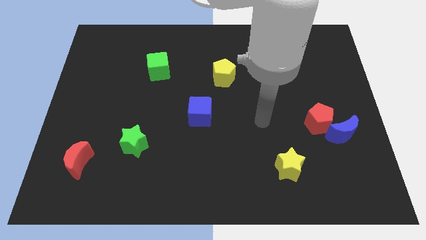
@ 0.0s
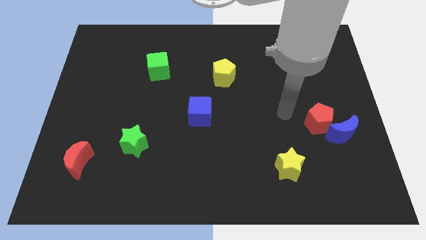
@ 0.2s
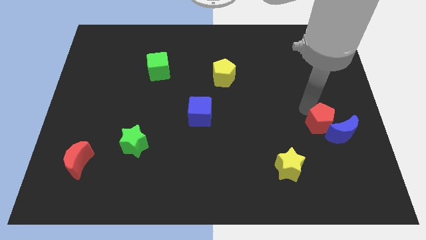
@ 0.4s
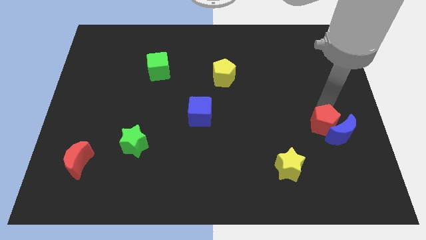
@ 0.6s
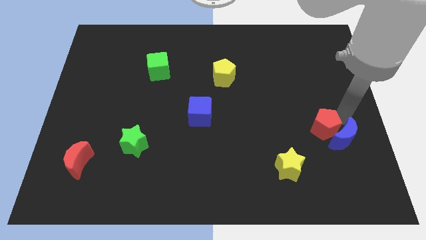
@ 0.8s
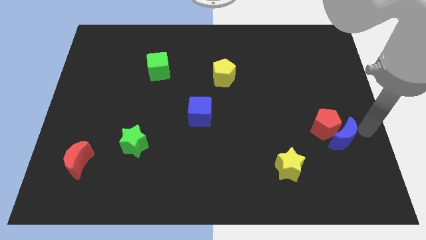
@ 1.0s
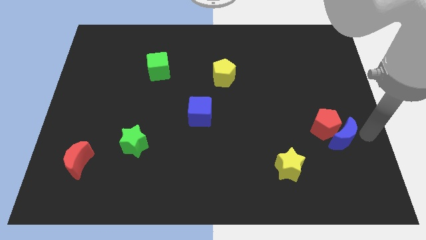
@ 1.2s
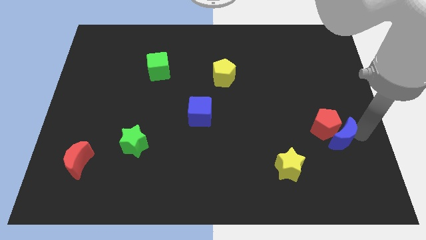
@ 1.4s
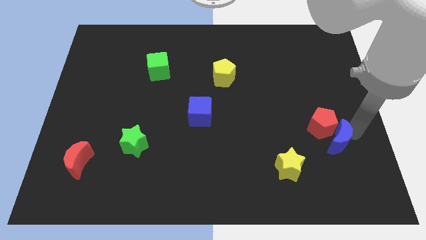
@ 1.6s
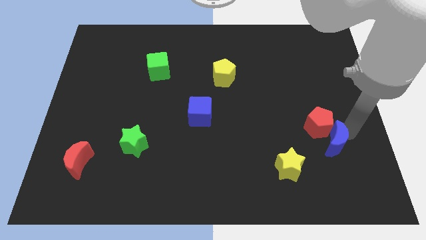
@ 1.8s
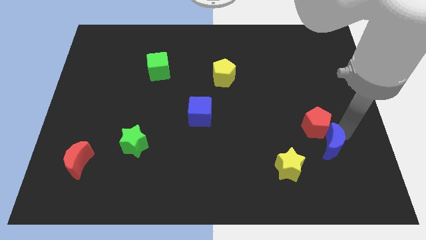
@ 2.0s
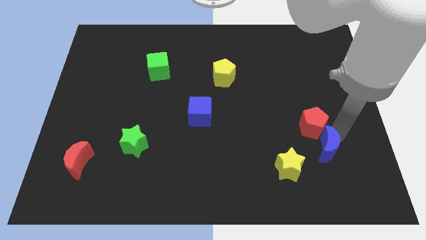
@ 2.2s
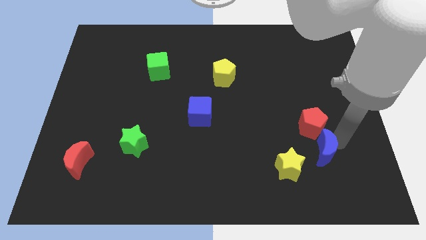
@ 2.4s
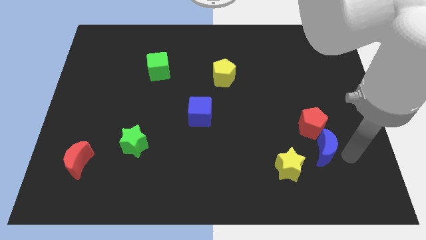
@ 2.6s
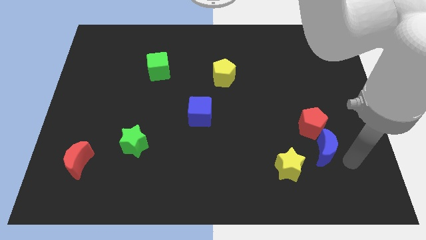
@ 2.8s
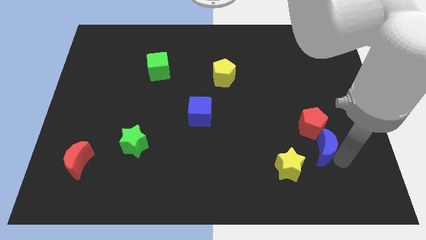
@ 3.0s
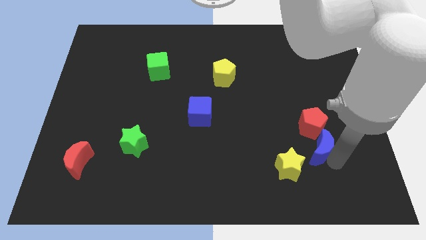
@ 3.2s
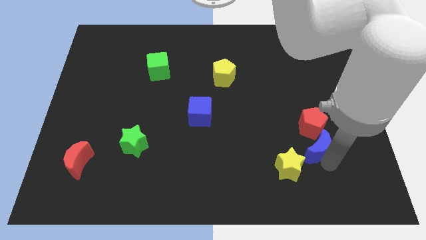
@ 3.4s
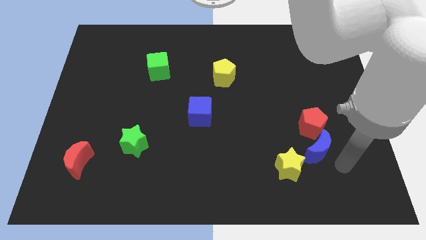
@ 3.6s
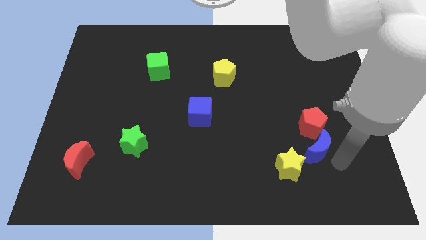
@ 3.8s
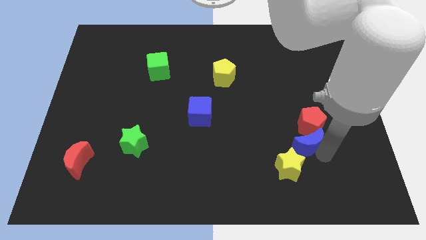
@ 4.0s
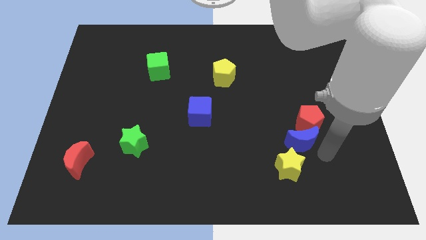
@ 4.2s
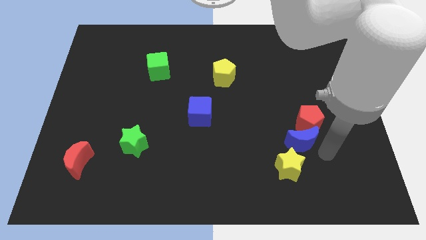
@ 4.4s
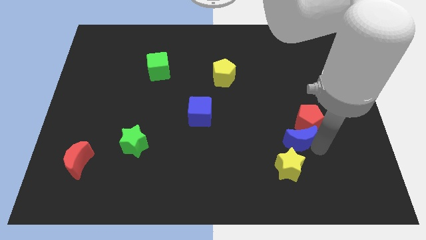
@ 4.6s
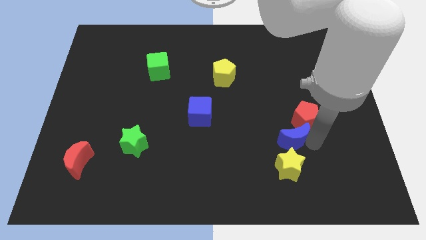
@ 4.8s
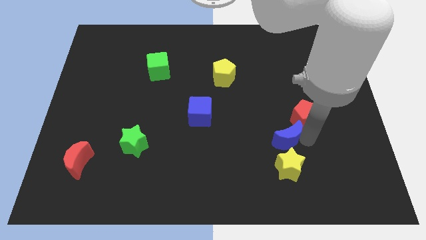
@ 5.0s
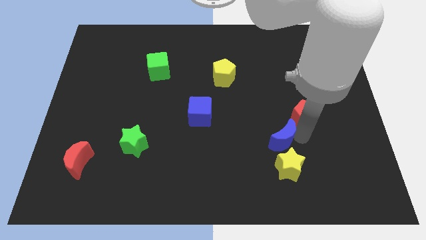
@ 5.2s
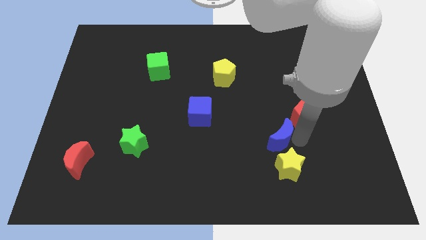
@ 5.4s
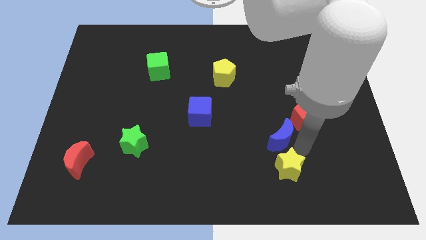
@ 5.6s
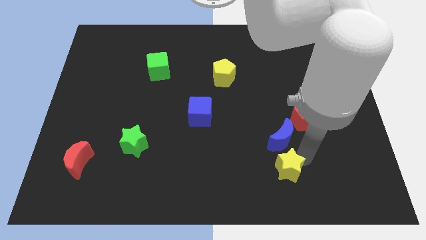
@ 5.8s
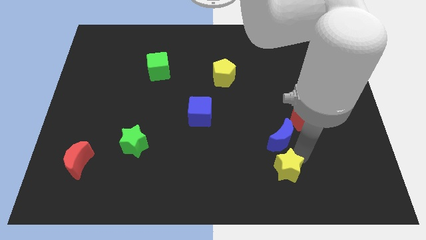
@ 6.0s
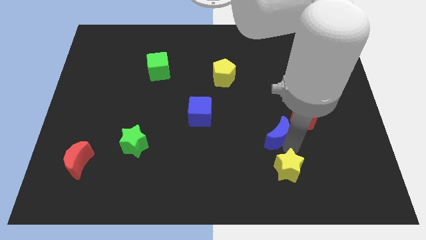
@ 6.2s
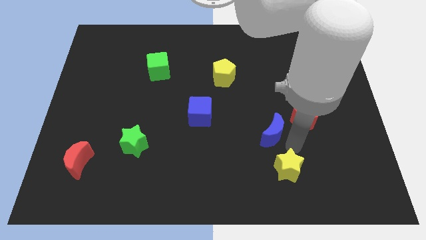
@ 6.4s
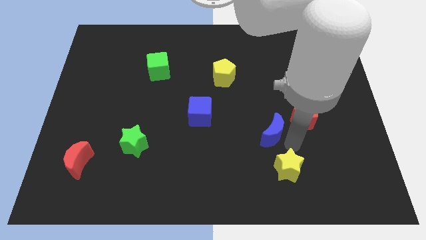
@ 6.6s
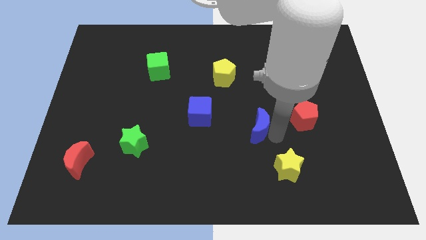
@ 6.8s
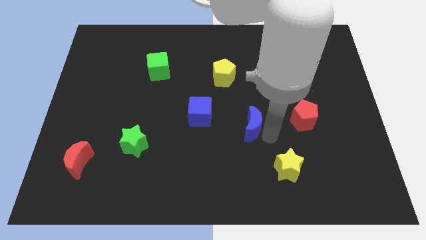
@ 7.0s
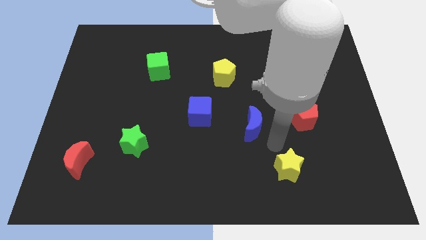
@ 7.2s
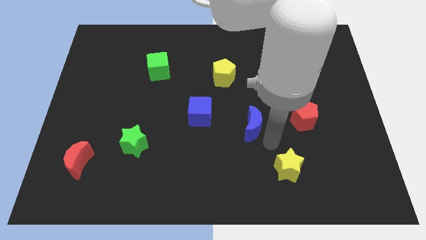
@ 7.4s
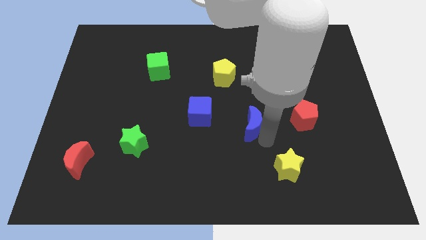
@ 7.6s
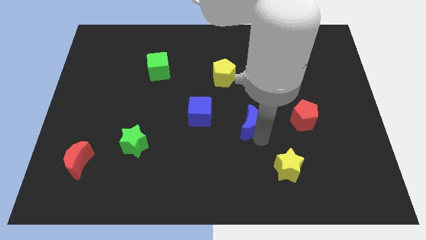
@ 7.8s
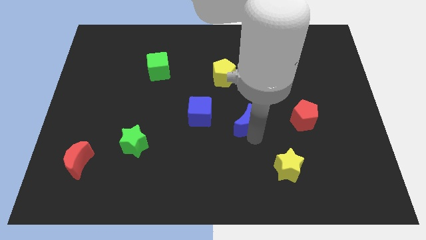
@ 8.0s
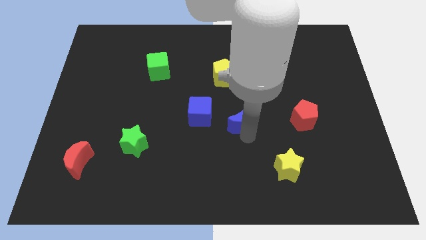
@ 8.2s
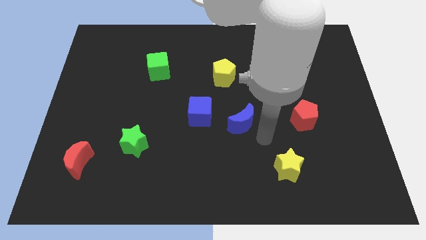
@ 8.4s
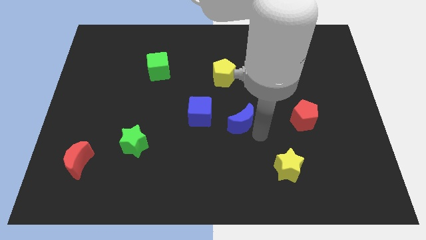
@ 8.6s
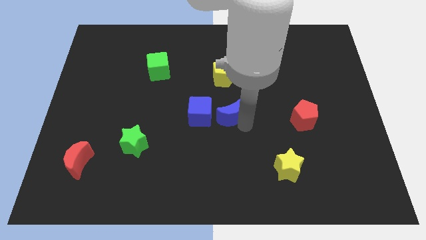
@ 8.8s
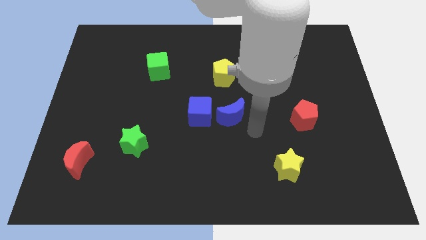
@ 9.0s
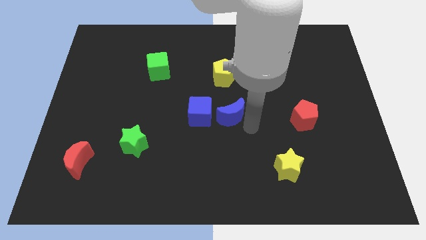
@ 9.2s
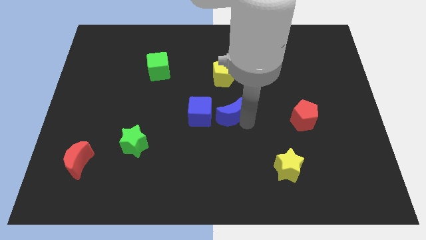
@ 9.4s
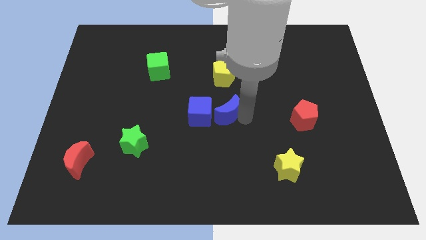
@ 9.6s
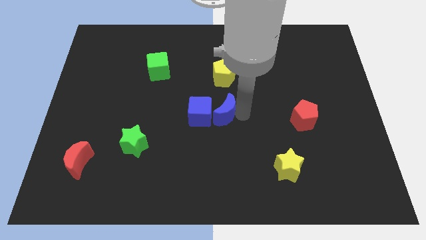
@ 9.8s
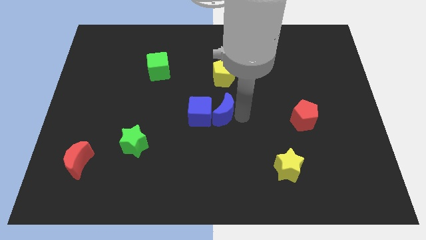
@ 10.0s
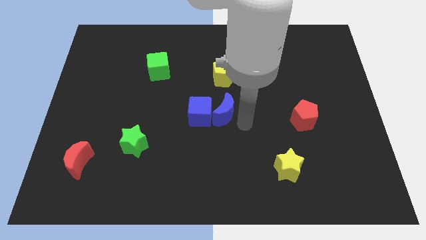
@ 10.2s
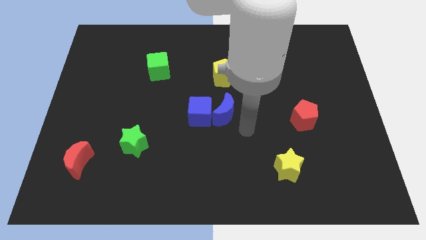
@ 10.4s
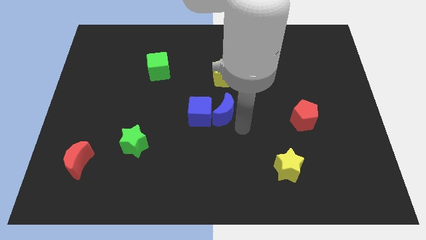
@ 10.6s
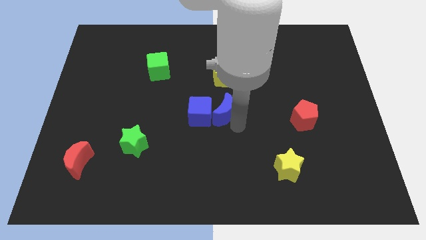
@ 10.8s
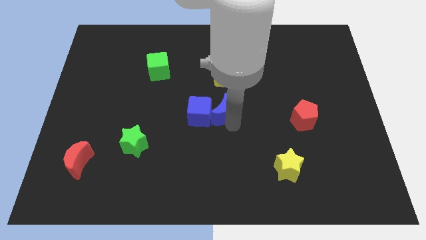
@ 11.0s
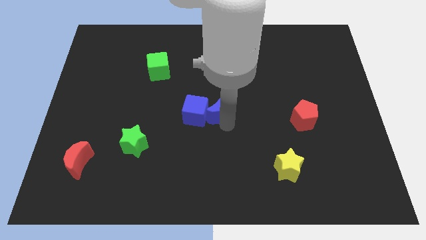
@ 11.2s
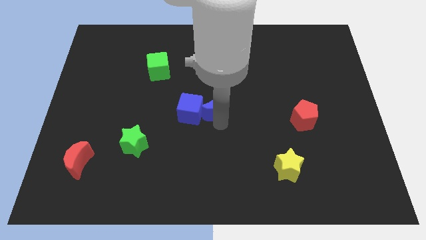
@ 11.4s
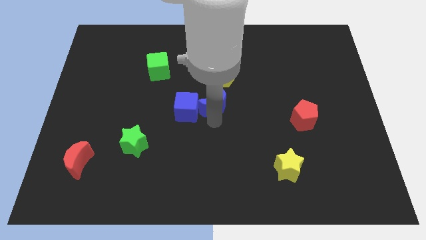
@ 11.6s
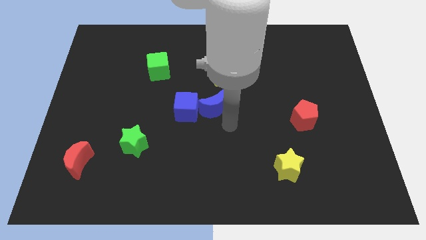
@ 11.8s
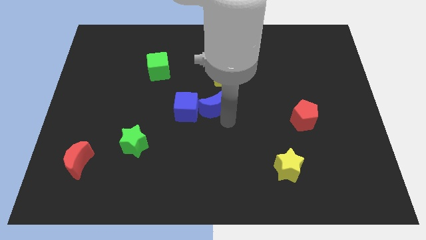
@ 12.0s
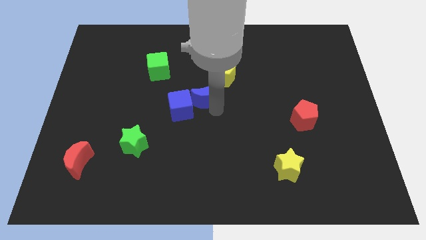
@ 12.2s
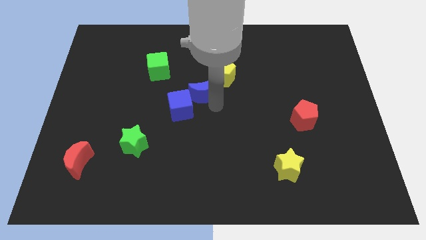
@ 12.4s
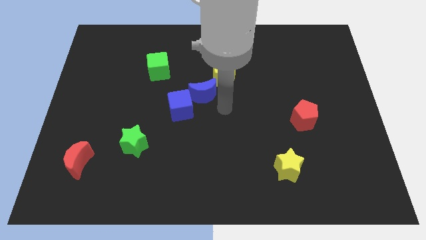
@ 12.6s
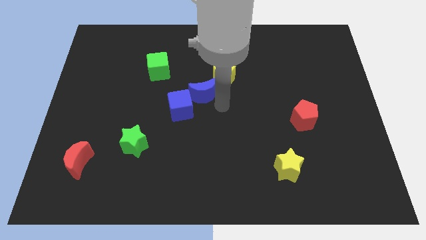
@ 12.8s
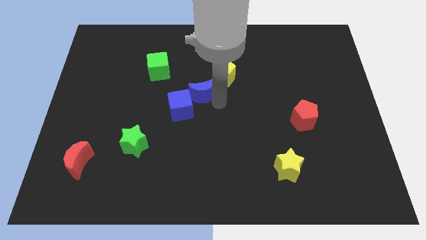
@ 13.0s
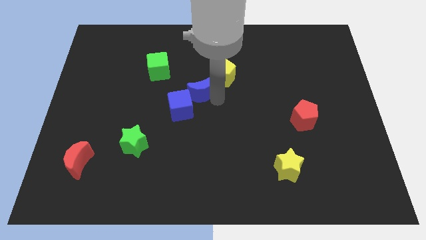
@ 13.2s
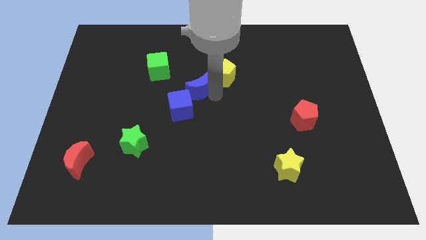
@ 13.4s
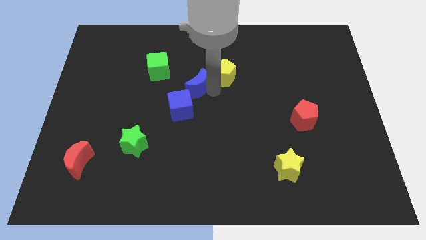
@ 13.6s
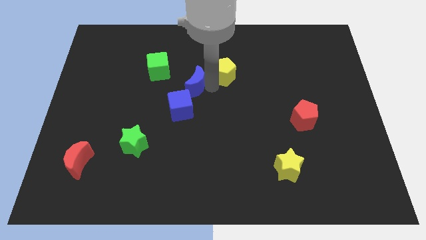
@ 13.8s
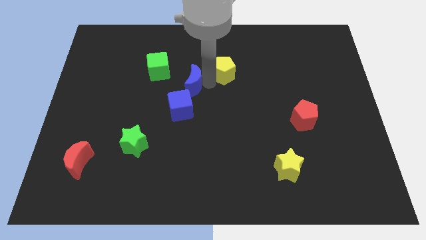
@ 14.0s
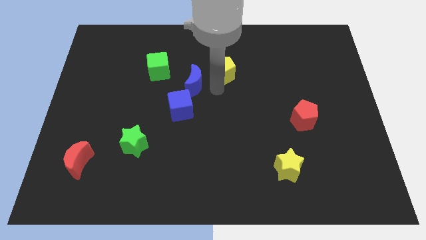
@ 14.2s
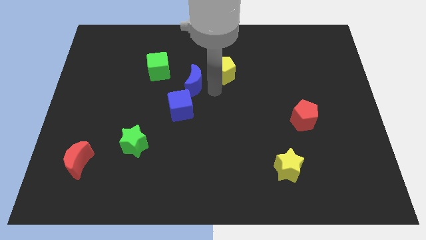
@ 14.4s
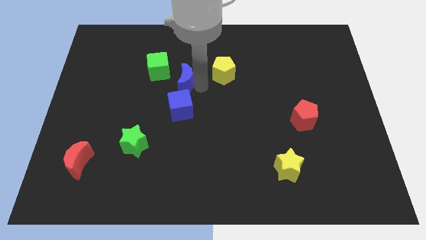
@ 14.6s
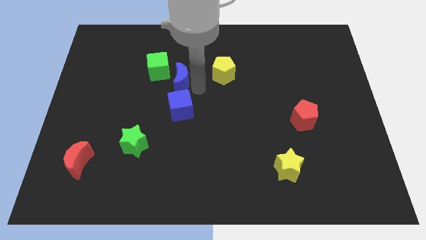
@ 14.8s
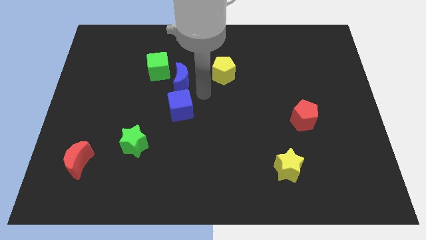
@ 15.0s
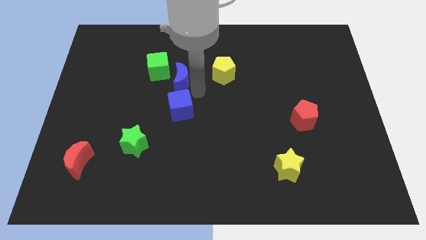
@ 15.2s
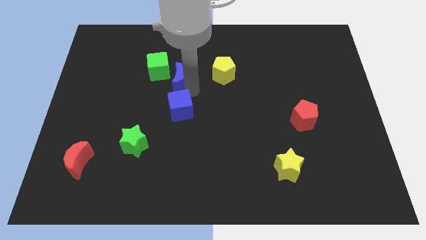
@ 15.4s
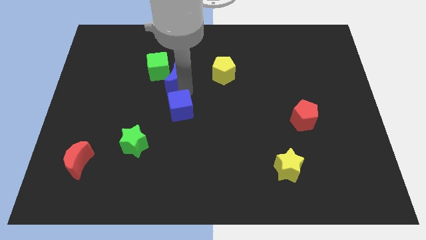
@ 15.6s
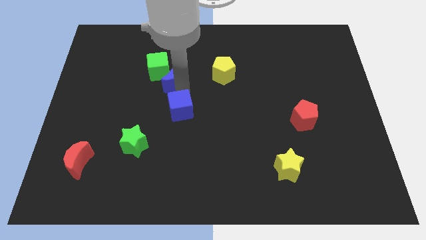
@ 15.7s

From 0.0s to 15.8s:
move the blue moon next to the green cube

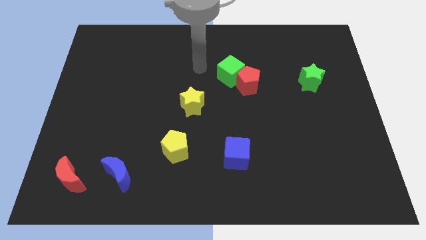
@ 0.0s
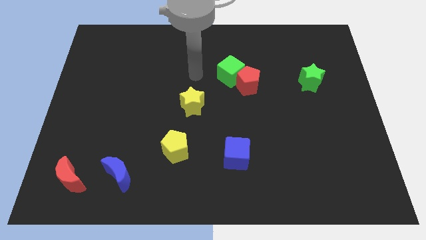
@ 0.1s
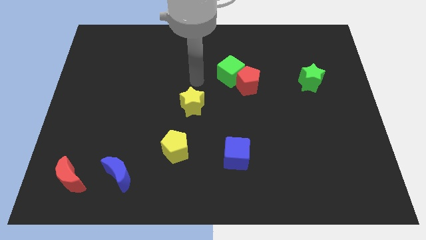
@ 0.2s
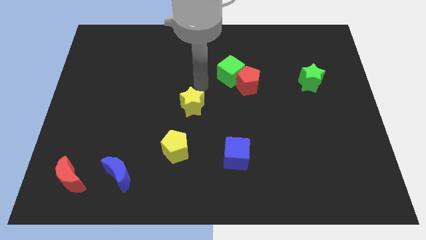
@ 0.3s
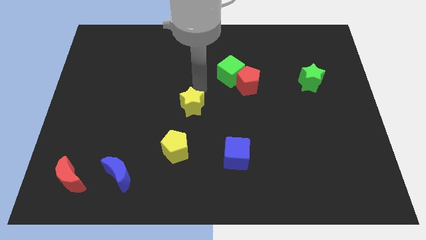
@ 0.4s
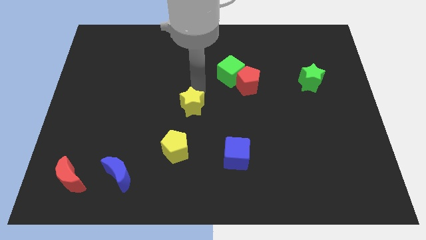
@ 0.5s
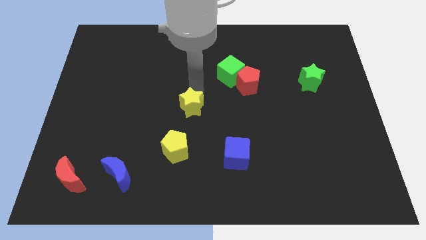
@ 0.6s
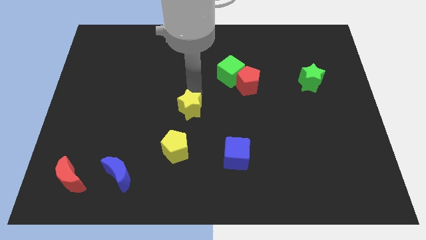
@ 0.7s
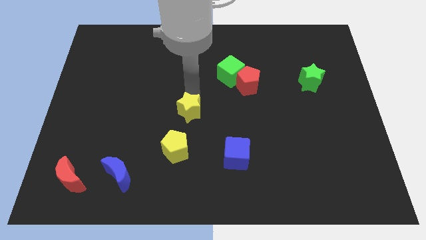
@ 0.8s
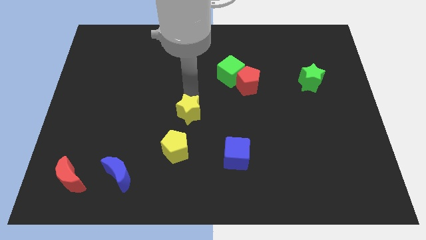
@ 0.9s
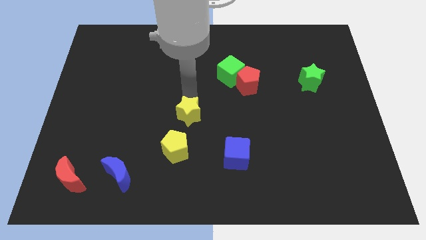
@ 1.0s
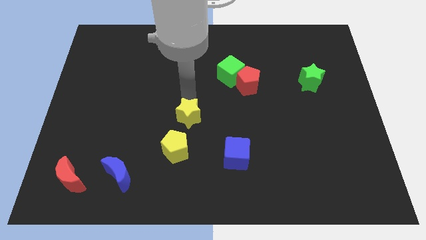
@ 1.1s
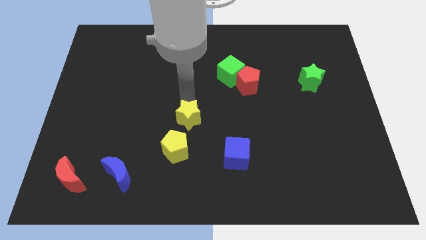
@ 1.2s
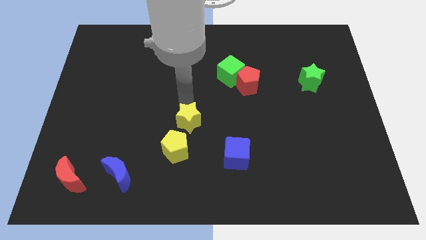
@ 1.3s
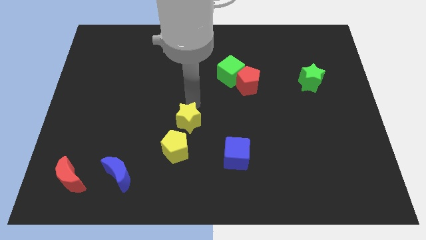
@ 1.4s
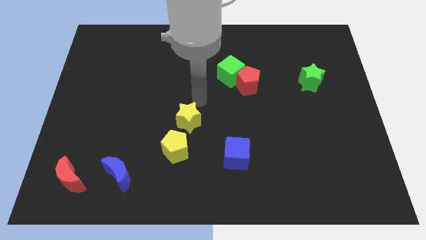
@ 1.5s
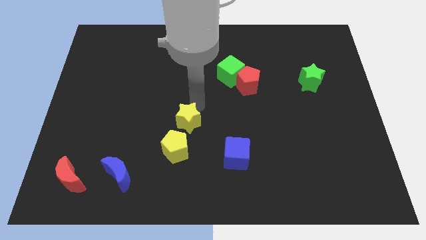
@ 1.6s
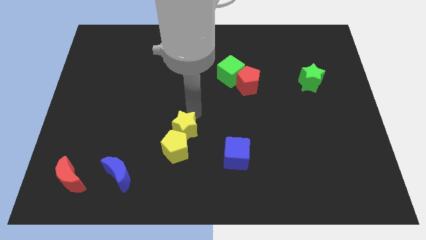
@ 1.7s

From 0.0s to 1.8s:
slide the yellow star towards the yellow pentagon
